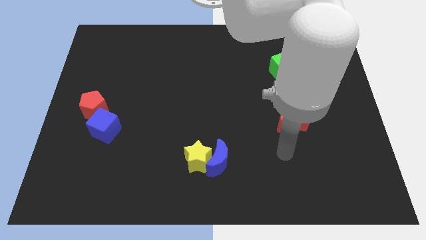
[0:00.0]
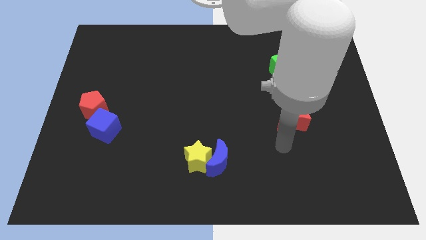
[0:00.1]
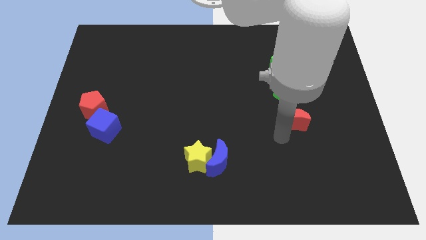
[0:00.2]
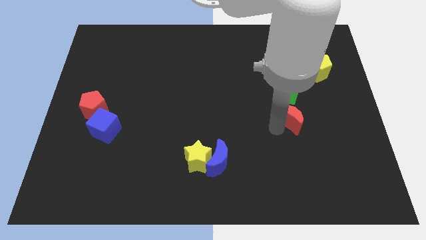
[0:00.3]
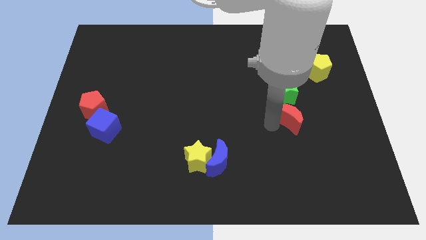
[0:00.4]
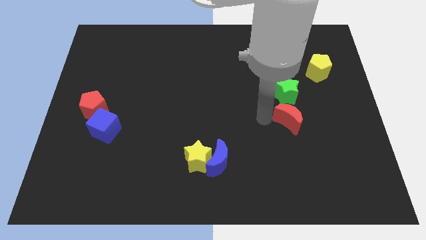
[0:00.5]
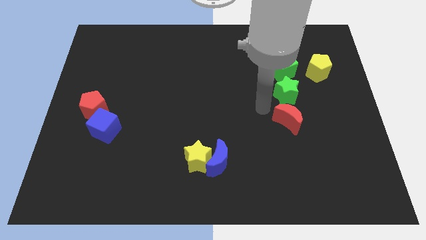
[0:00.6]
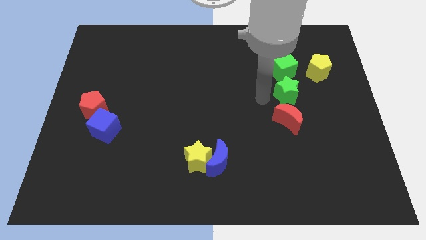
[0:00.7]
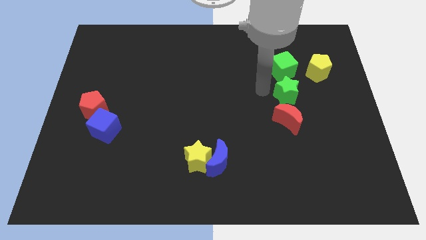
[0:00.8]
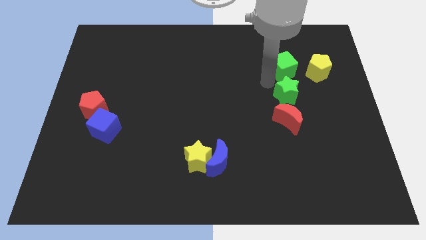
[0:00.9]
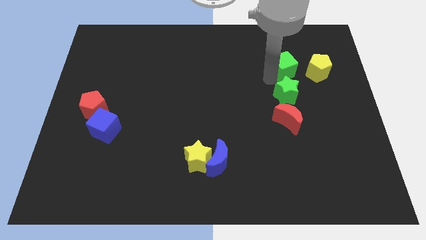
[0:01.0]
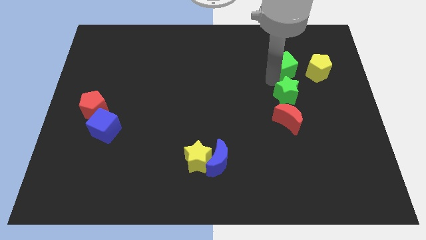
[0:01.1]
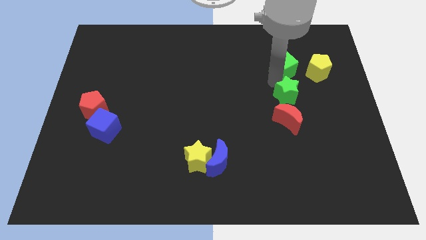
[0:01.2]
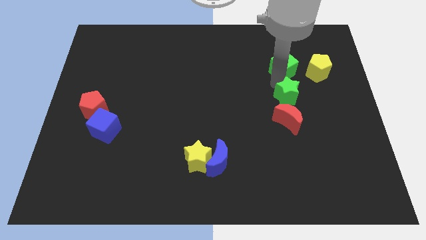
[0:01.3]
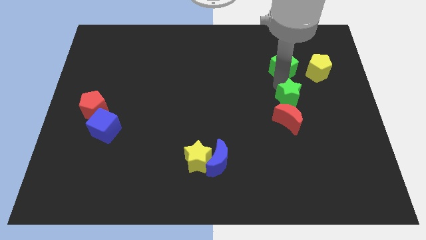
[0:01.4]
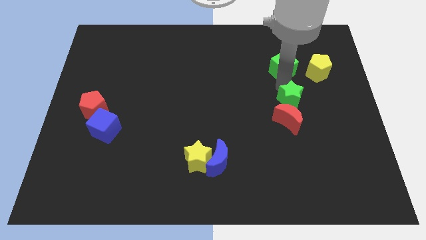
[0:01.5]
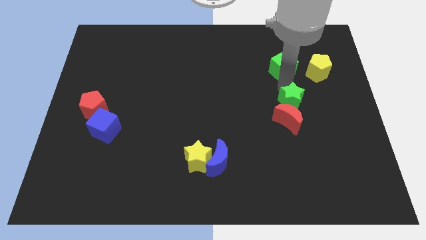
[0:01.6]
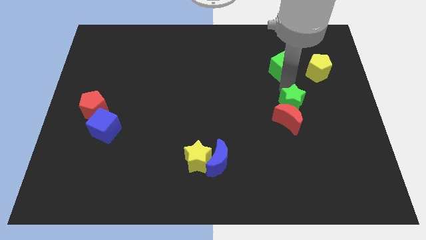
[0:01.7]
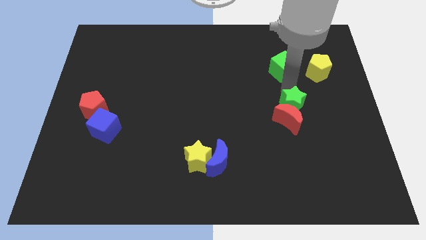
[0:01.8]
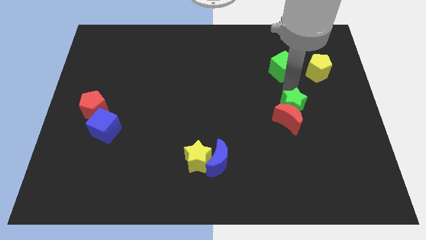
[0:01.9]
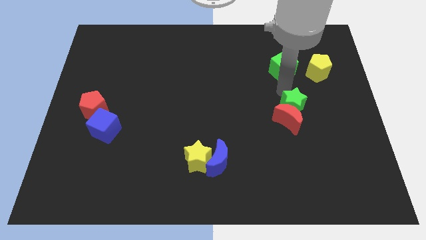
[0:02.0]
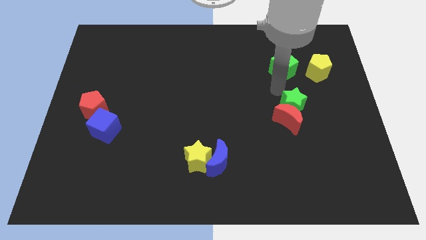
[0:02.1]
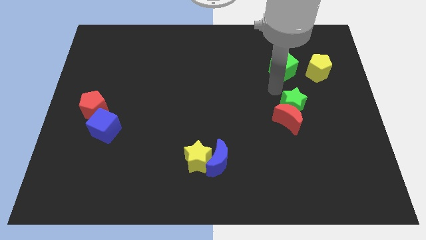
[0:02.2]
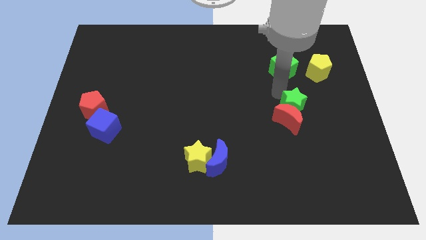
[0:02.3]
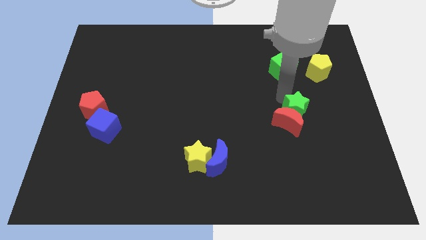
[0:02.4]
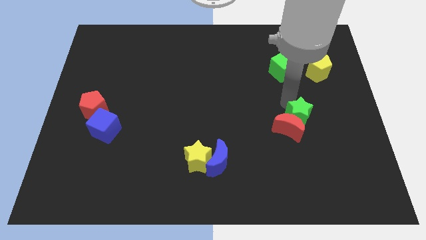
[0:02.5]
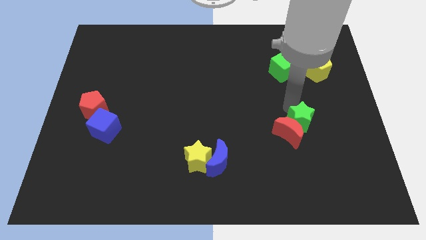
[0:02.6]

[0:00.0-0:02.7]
move the green star downwards a little

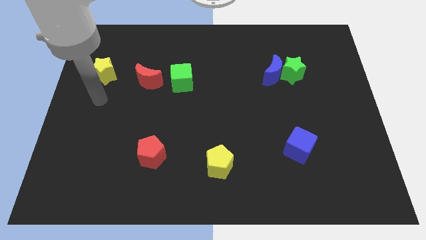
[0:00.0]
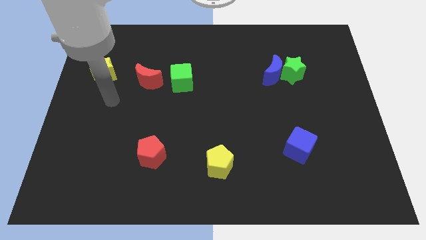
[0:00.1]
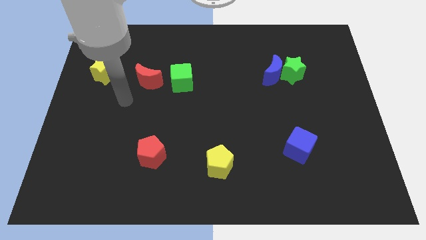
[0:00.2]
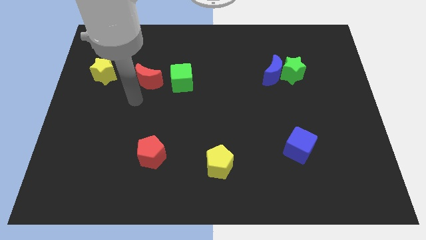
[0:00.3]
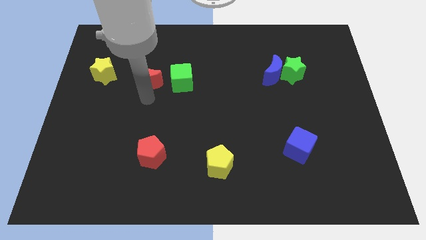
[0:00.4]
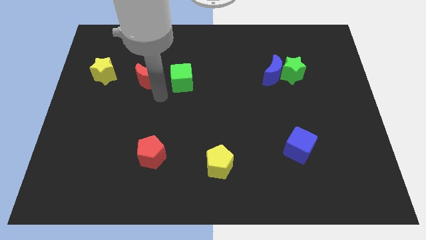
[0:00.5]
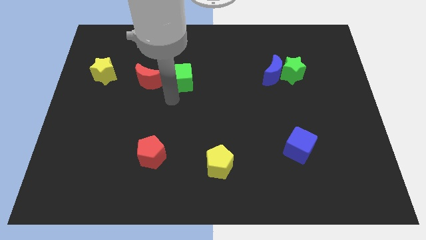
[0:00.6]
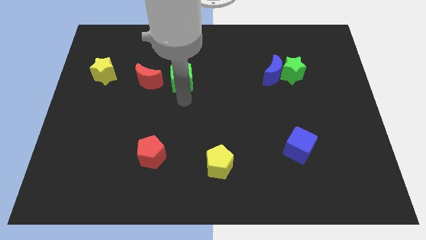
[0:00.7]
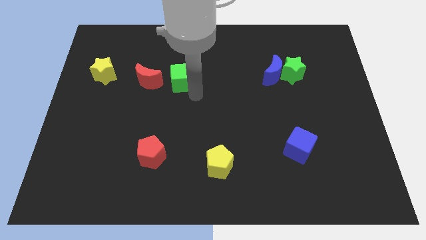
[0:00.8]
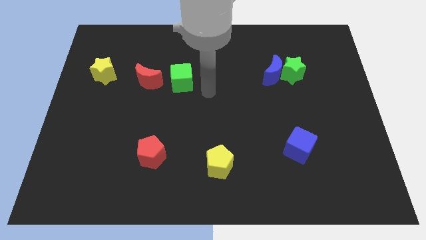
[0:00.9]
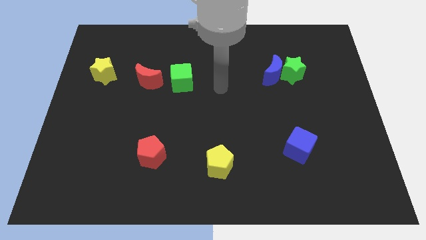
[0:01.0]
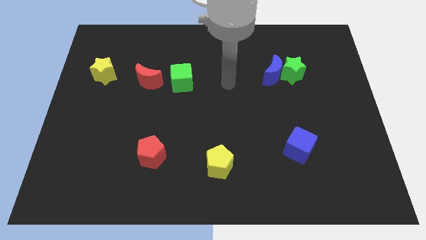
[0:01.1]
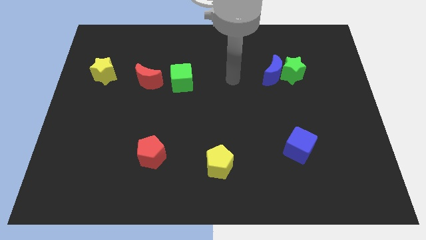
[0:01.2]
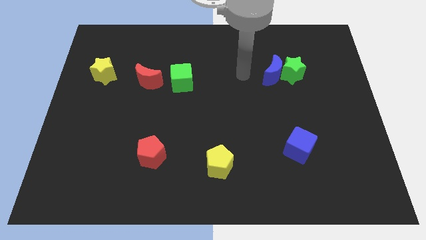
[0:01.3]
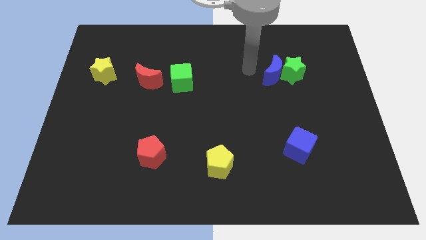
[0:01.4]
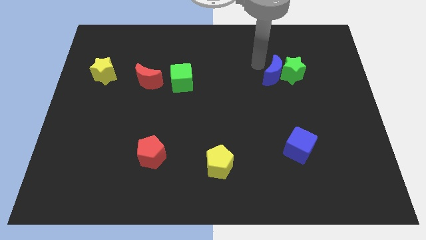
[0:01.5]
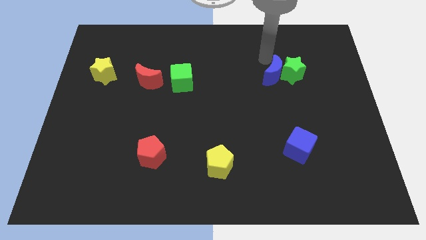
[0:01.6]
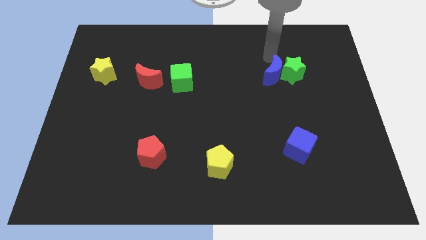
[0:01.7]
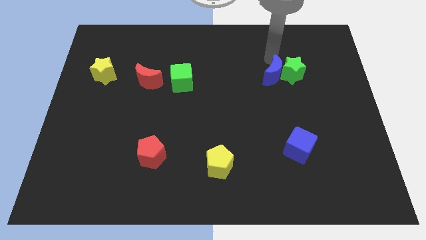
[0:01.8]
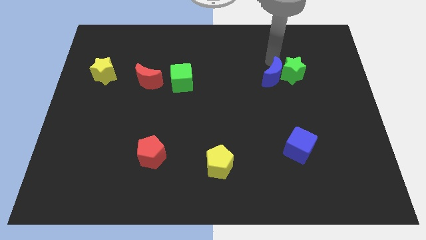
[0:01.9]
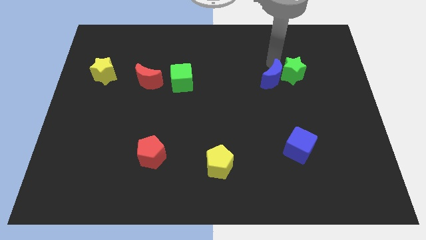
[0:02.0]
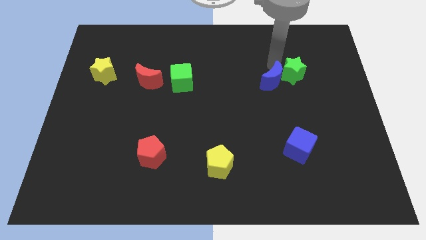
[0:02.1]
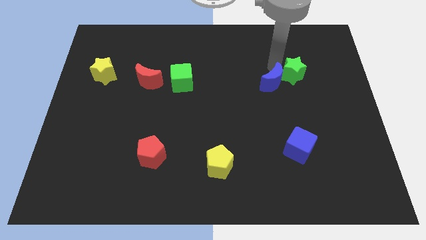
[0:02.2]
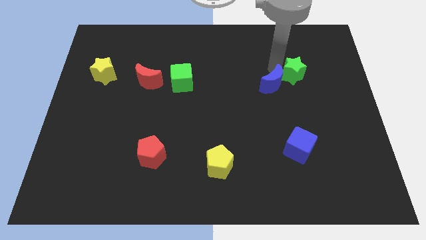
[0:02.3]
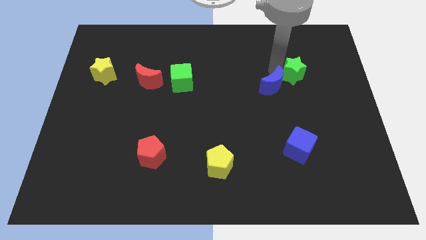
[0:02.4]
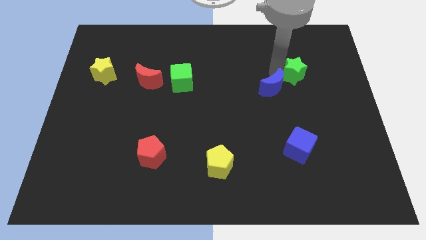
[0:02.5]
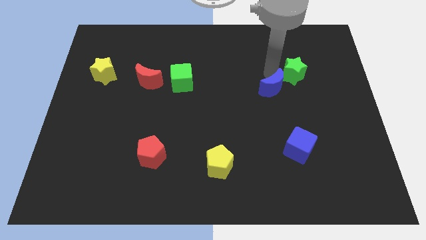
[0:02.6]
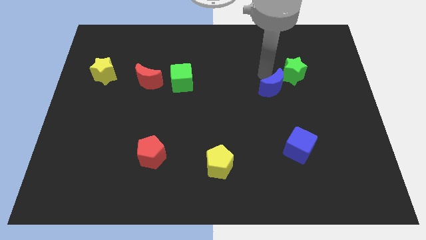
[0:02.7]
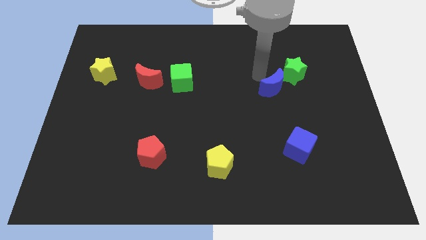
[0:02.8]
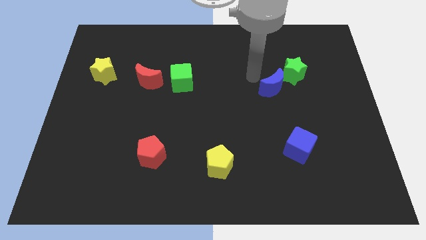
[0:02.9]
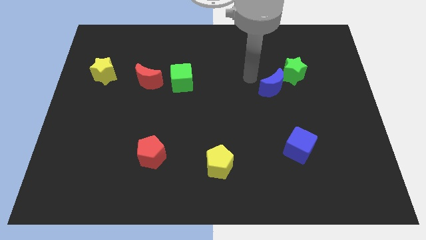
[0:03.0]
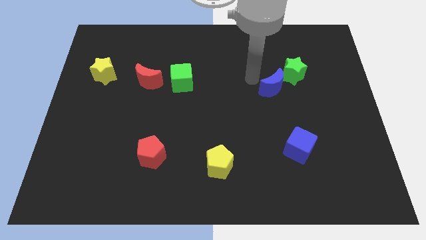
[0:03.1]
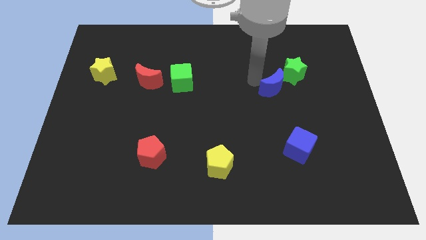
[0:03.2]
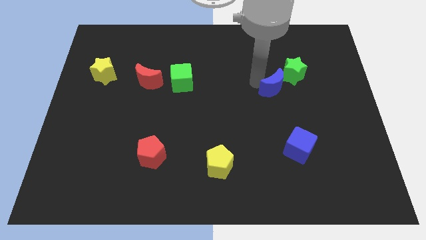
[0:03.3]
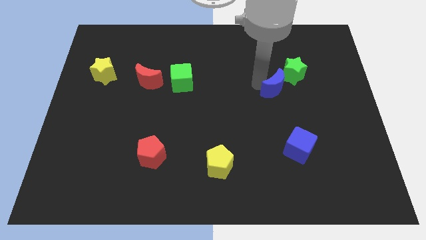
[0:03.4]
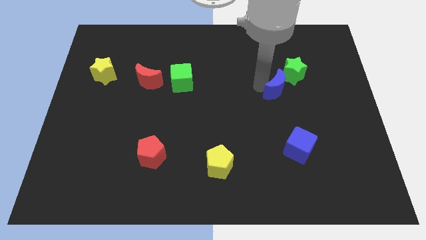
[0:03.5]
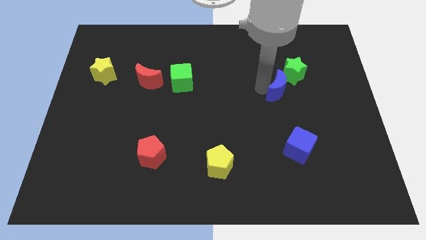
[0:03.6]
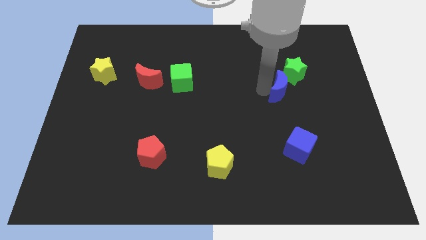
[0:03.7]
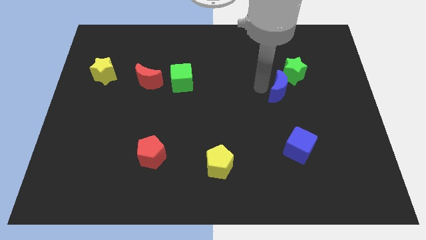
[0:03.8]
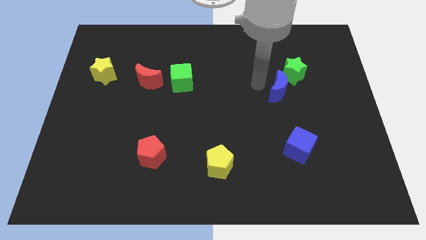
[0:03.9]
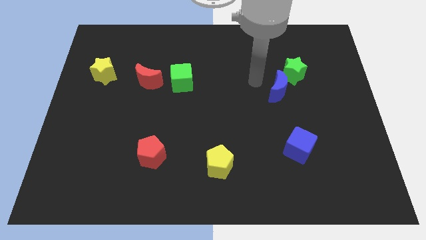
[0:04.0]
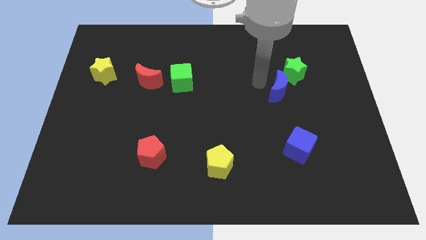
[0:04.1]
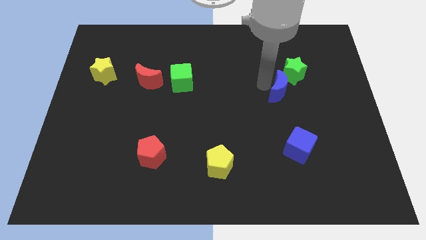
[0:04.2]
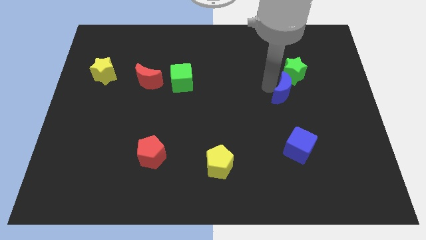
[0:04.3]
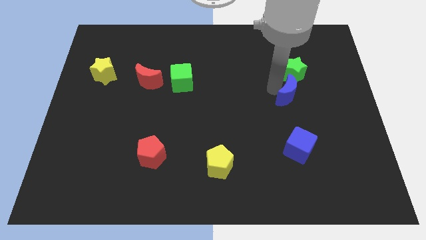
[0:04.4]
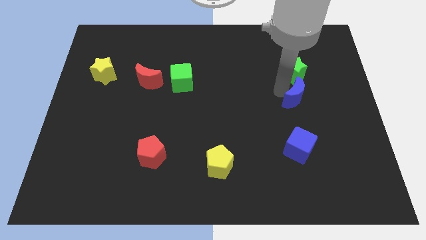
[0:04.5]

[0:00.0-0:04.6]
slightly move the blue moon downwards and then to the right

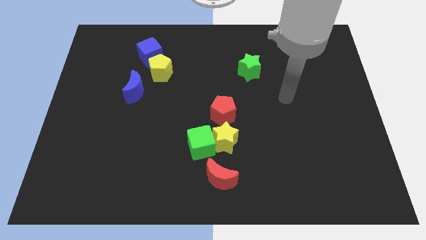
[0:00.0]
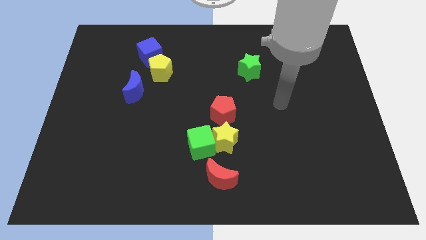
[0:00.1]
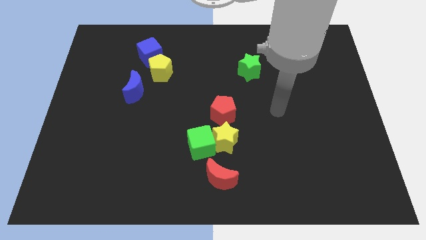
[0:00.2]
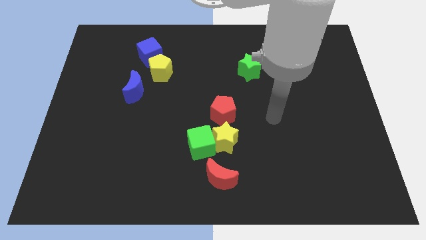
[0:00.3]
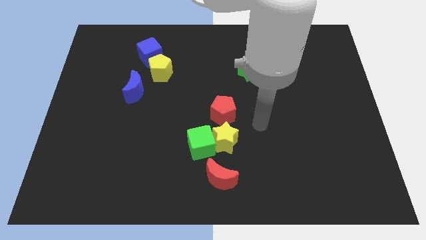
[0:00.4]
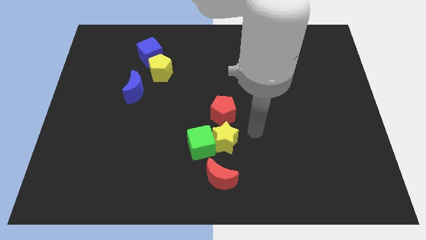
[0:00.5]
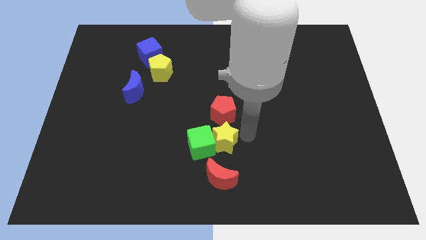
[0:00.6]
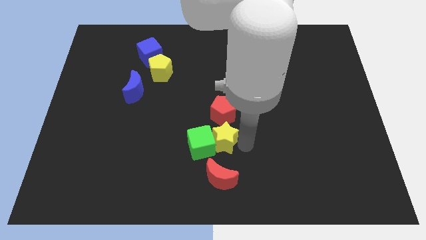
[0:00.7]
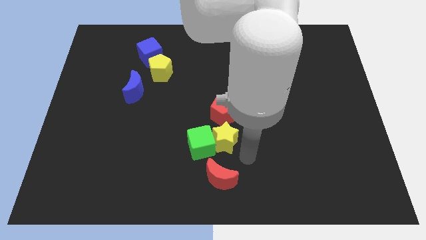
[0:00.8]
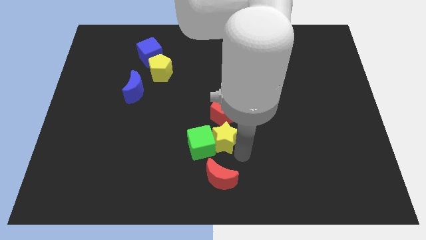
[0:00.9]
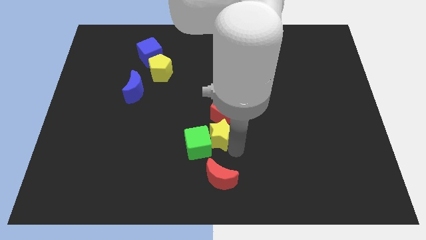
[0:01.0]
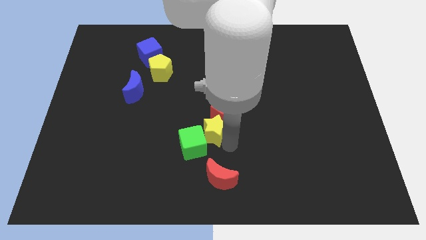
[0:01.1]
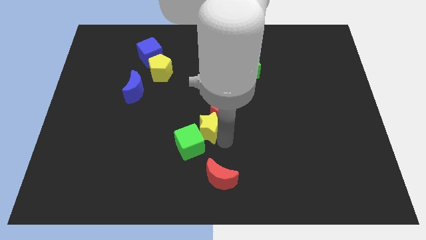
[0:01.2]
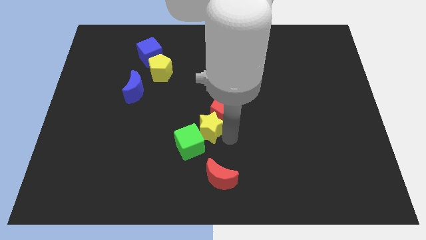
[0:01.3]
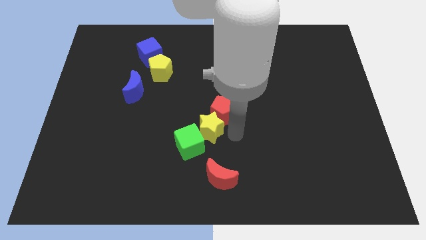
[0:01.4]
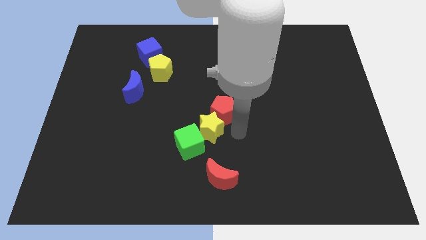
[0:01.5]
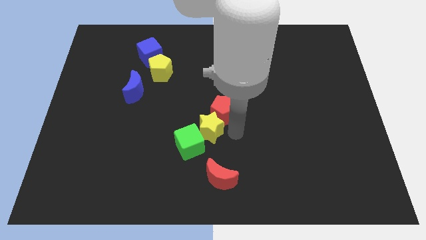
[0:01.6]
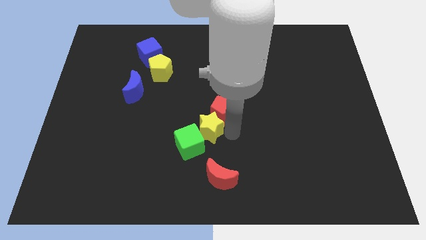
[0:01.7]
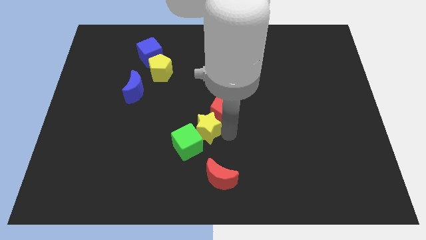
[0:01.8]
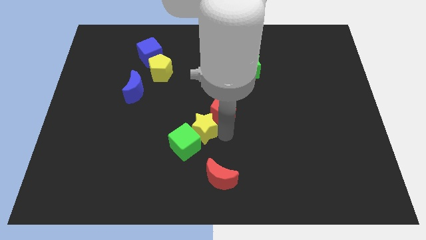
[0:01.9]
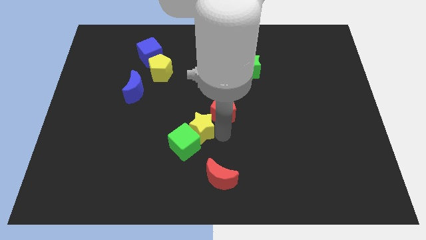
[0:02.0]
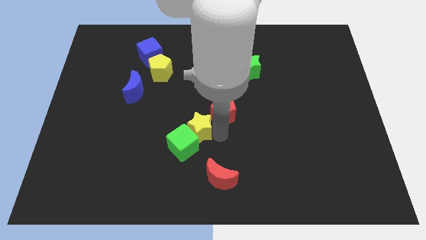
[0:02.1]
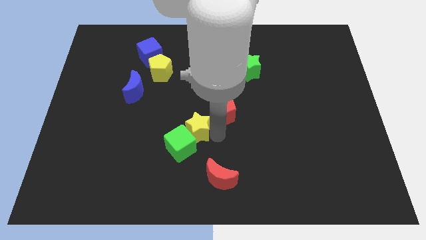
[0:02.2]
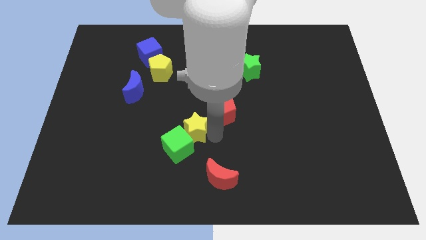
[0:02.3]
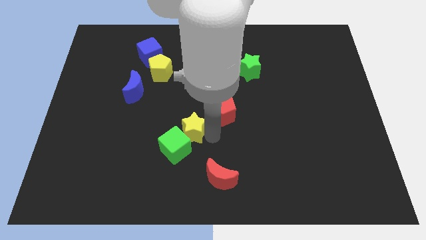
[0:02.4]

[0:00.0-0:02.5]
slightly move the yellow star left
